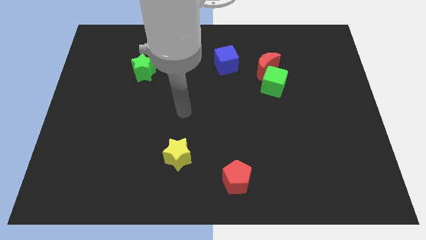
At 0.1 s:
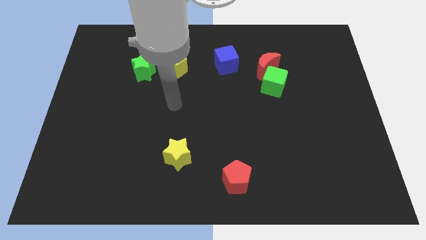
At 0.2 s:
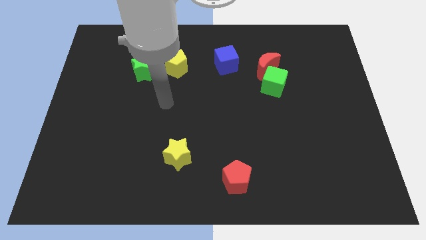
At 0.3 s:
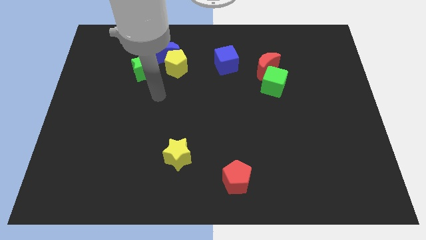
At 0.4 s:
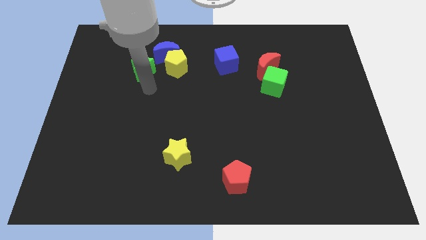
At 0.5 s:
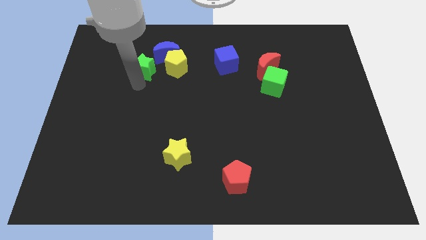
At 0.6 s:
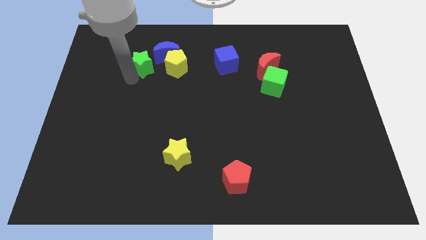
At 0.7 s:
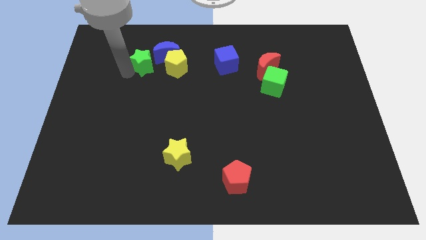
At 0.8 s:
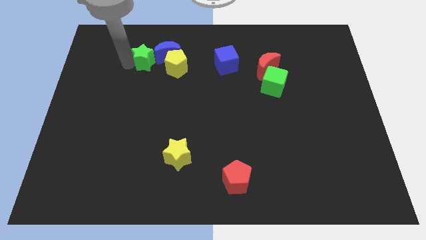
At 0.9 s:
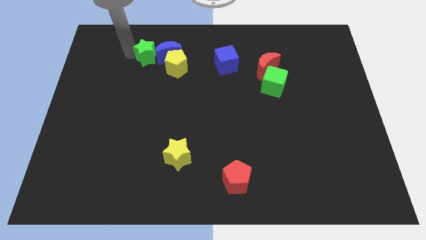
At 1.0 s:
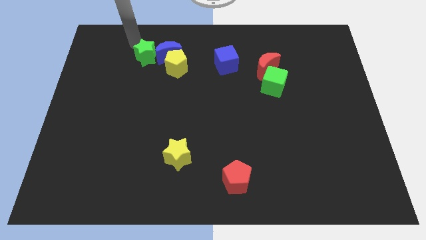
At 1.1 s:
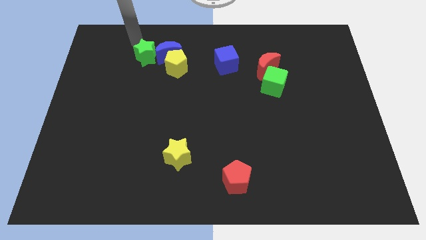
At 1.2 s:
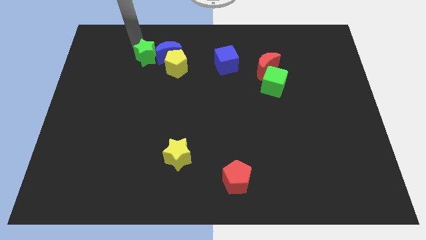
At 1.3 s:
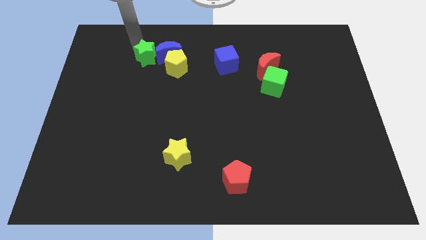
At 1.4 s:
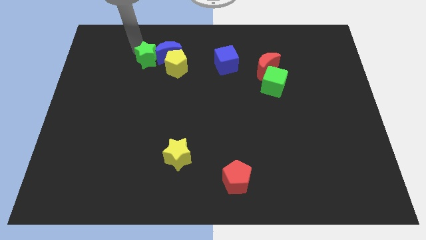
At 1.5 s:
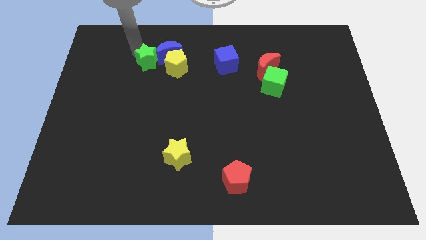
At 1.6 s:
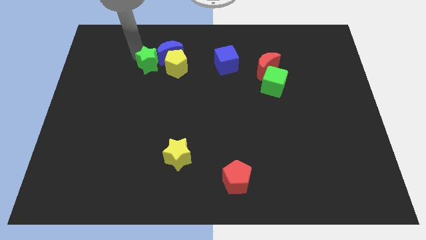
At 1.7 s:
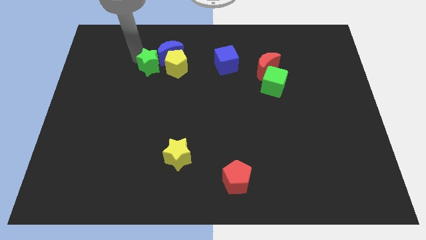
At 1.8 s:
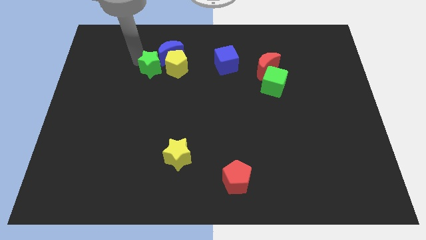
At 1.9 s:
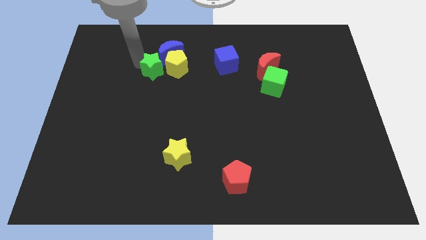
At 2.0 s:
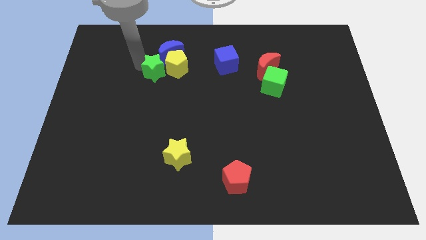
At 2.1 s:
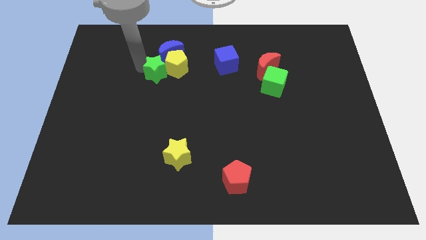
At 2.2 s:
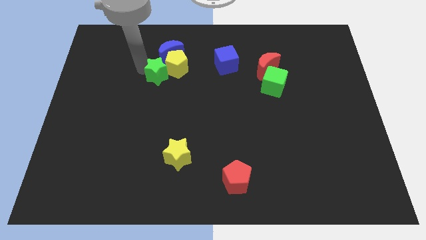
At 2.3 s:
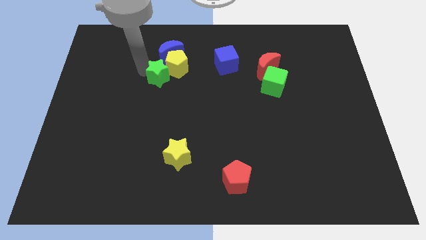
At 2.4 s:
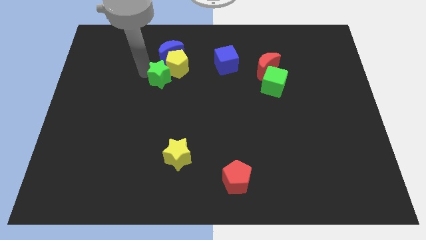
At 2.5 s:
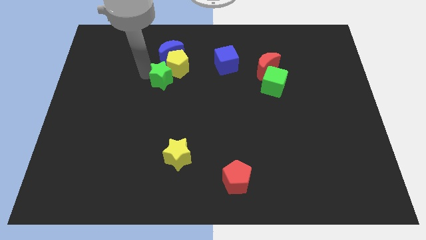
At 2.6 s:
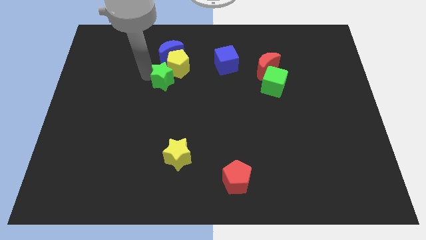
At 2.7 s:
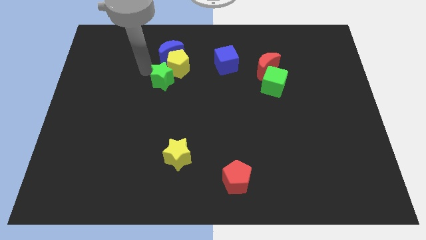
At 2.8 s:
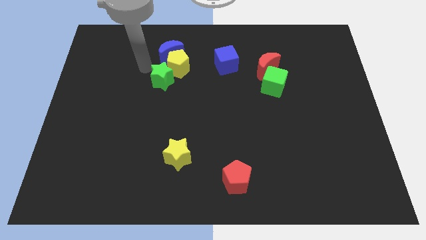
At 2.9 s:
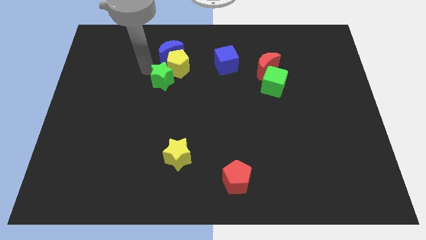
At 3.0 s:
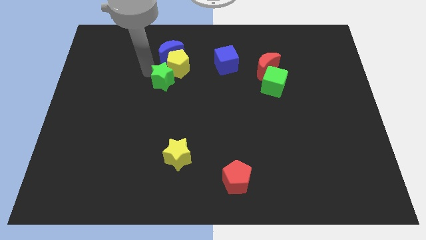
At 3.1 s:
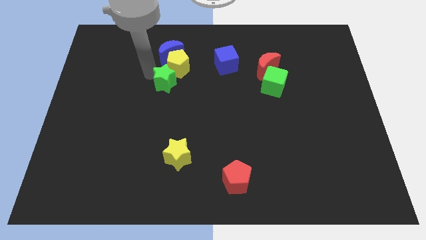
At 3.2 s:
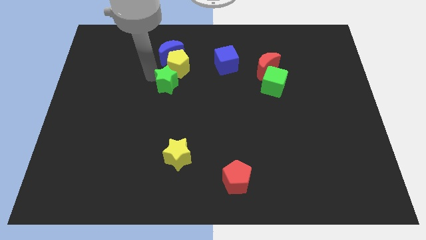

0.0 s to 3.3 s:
slightly move the green star downwards and right diagonally

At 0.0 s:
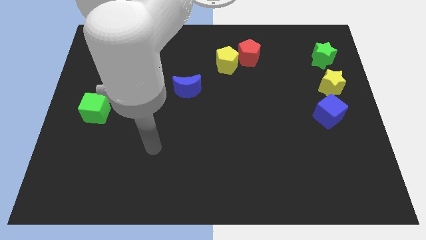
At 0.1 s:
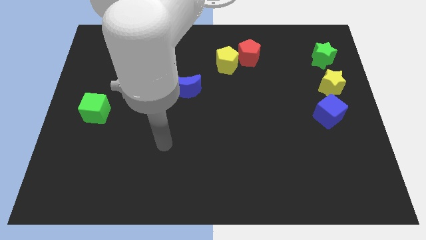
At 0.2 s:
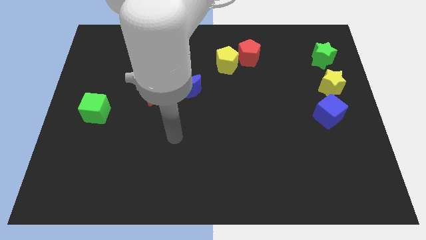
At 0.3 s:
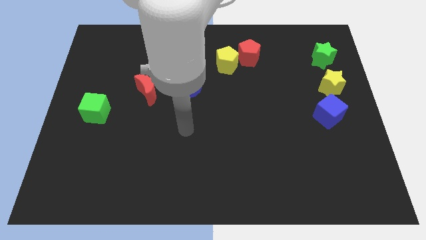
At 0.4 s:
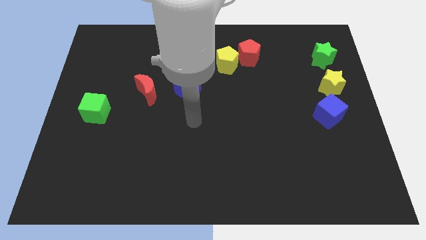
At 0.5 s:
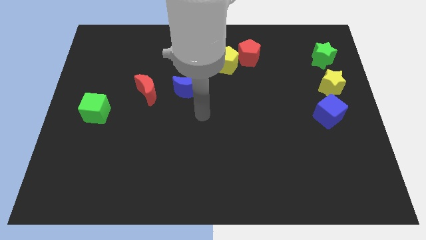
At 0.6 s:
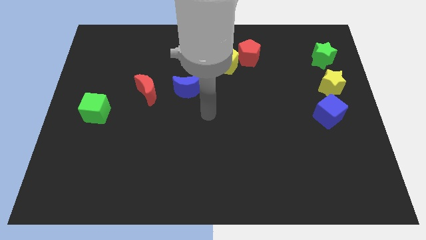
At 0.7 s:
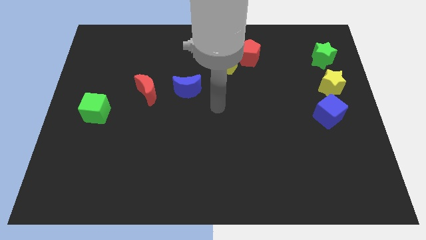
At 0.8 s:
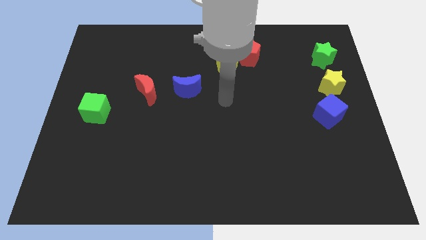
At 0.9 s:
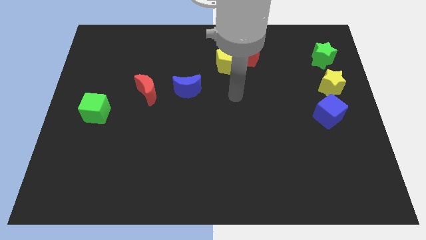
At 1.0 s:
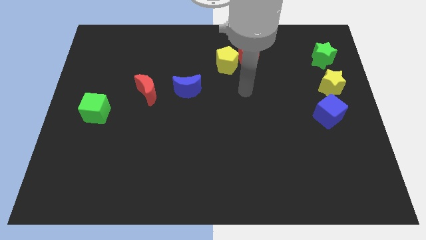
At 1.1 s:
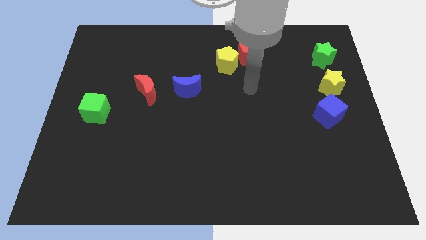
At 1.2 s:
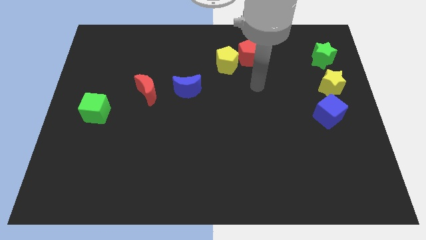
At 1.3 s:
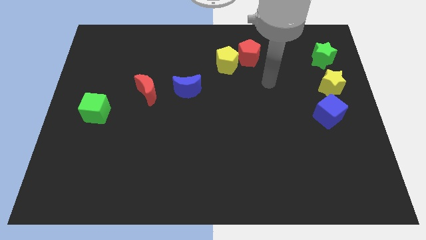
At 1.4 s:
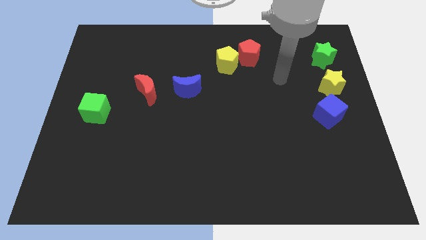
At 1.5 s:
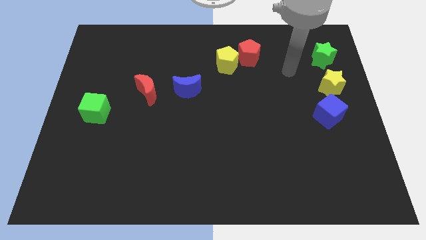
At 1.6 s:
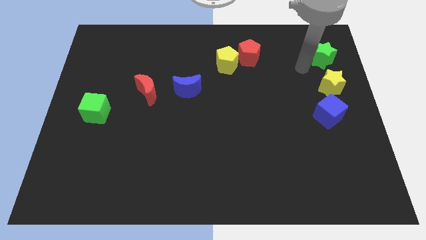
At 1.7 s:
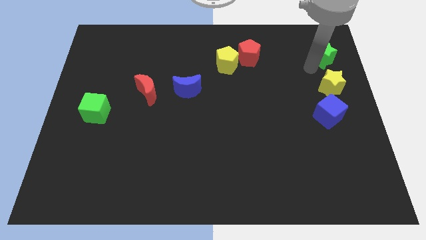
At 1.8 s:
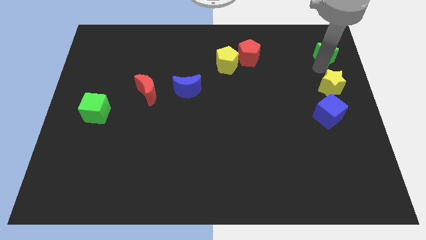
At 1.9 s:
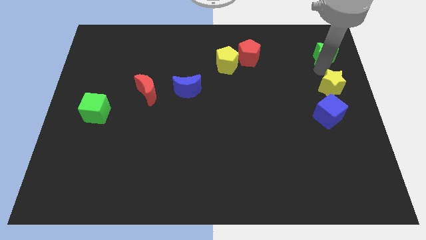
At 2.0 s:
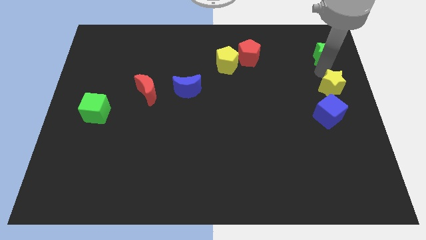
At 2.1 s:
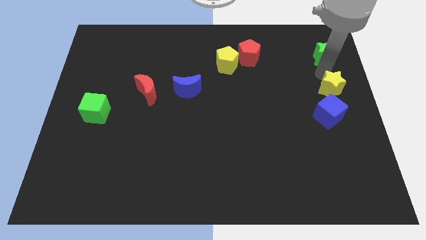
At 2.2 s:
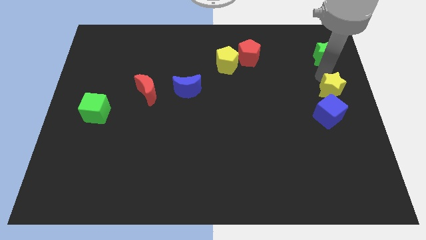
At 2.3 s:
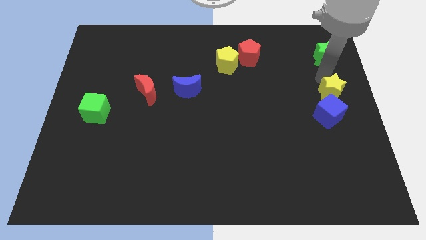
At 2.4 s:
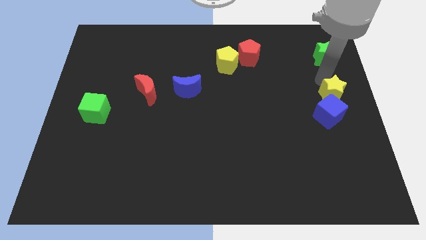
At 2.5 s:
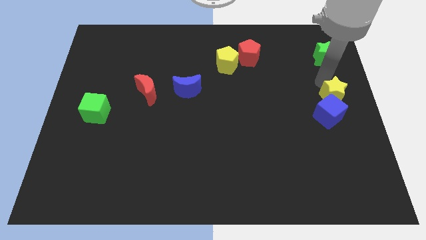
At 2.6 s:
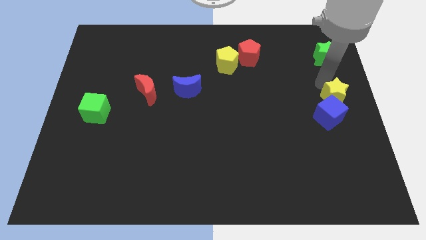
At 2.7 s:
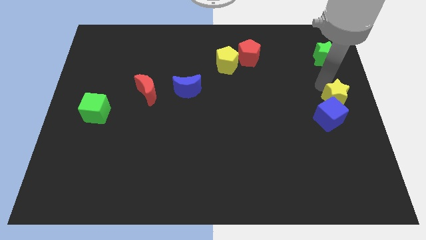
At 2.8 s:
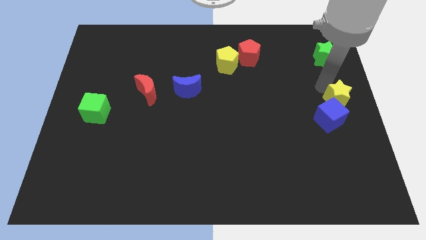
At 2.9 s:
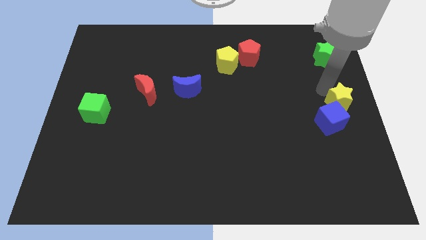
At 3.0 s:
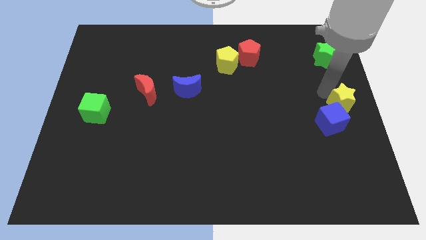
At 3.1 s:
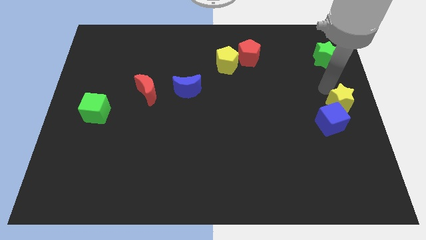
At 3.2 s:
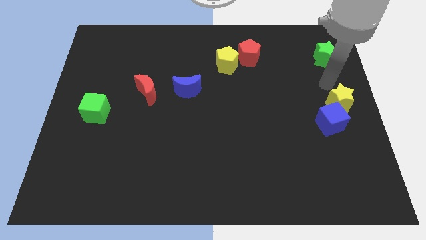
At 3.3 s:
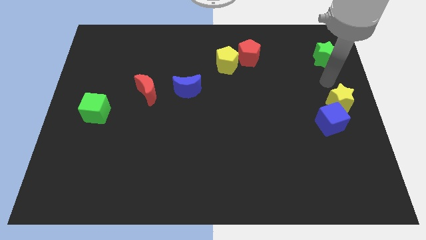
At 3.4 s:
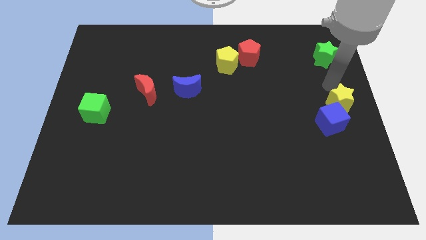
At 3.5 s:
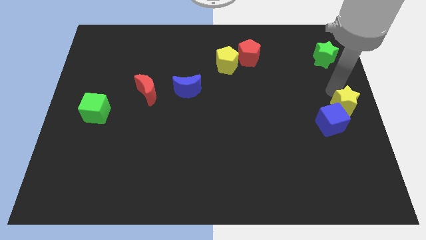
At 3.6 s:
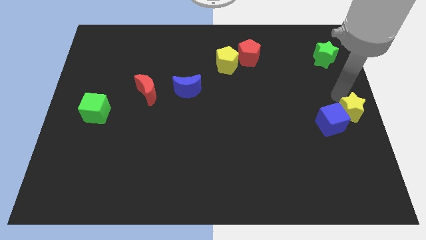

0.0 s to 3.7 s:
push the yellow star a bit down

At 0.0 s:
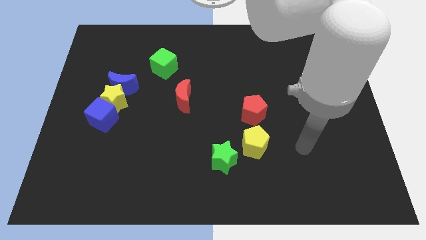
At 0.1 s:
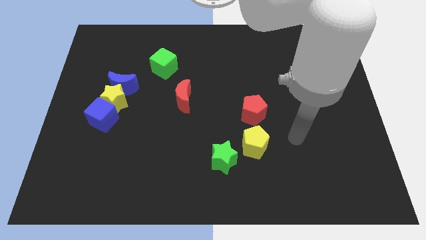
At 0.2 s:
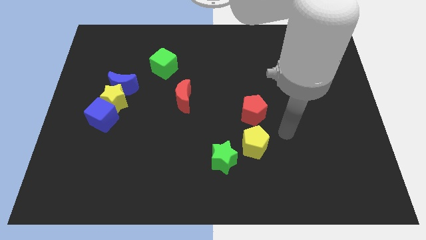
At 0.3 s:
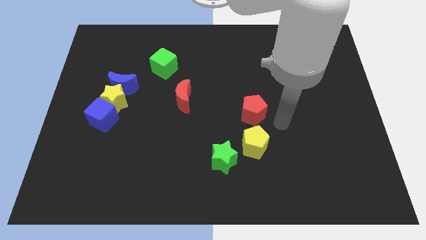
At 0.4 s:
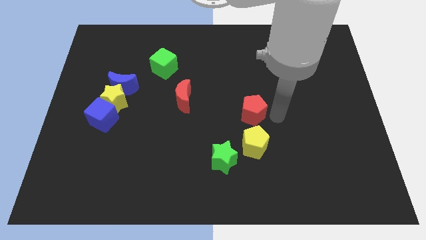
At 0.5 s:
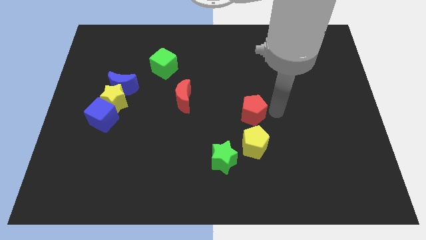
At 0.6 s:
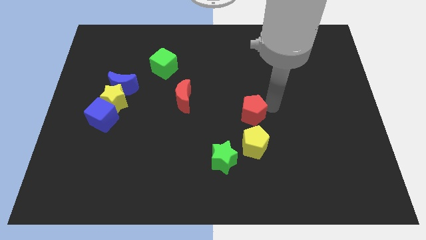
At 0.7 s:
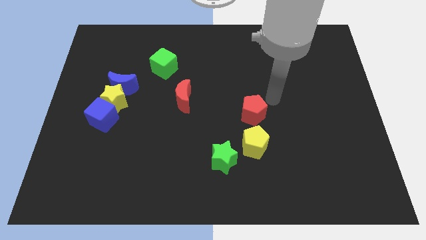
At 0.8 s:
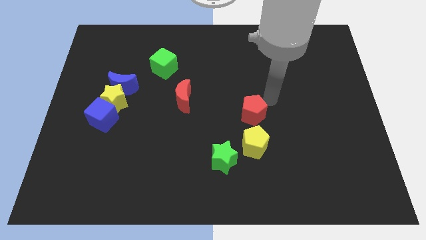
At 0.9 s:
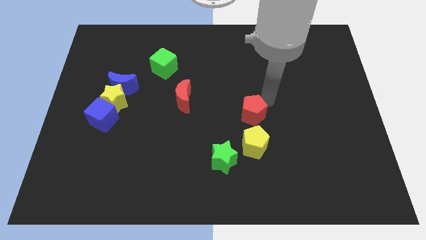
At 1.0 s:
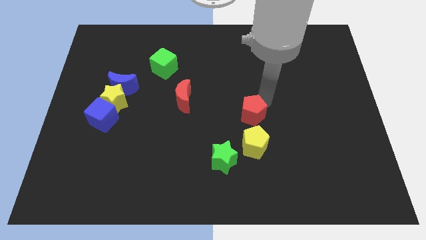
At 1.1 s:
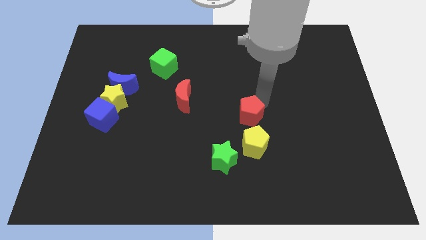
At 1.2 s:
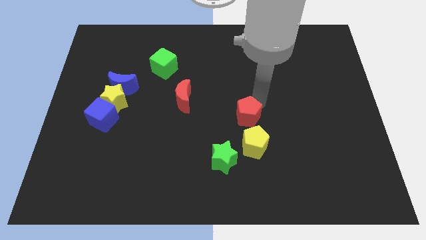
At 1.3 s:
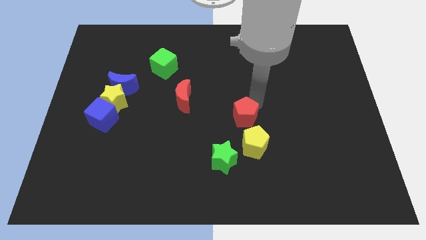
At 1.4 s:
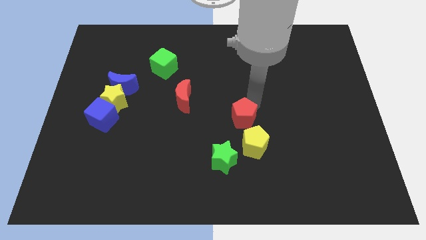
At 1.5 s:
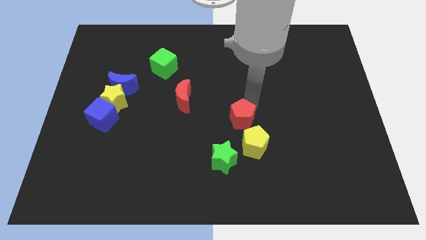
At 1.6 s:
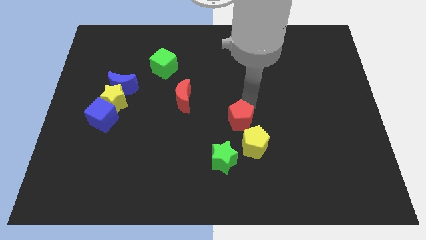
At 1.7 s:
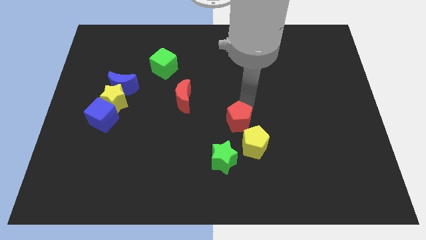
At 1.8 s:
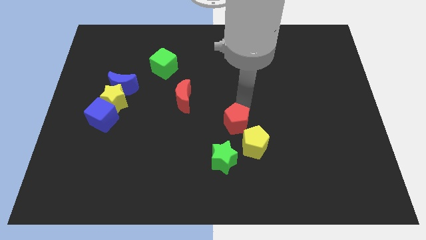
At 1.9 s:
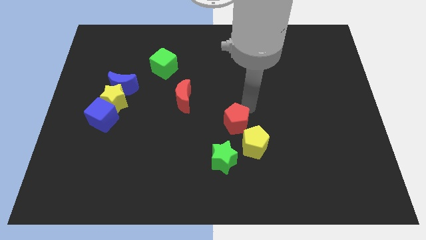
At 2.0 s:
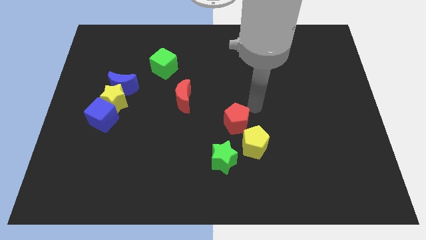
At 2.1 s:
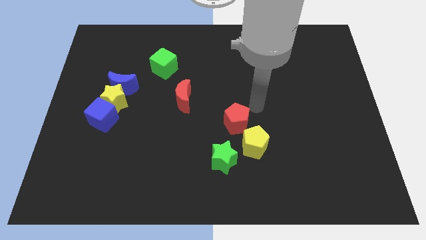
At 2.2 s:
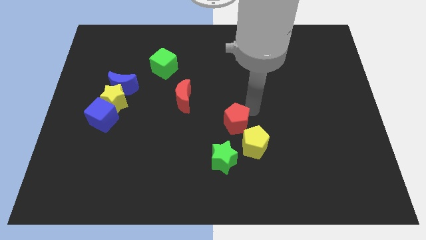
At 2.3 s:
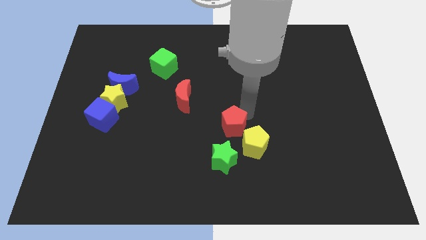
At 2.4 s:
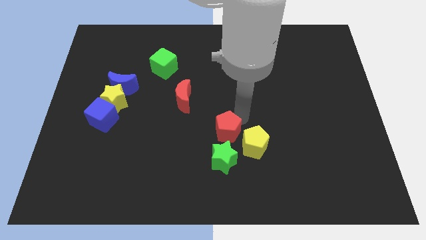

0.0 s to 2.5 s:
push the red pentagon diagonally down and to the left slightly
